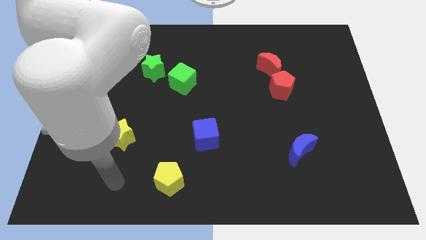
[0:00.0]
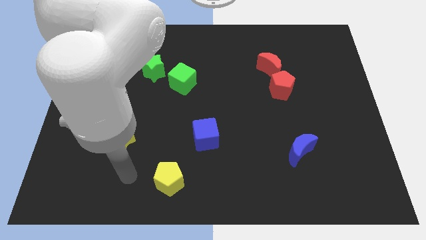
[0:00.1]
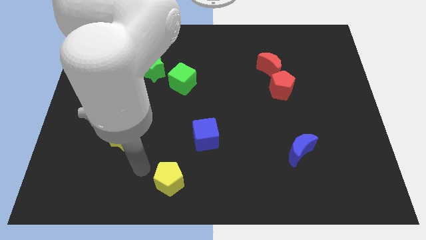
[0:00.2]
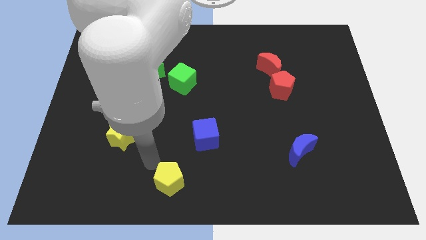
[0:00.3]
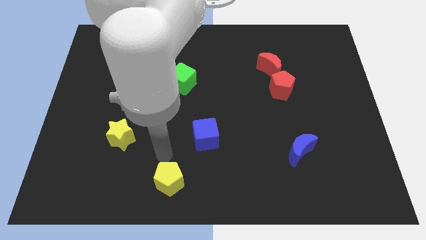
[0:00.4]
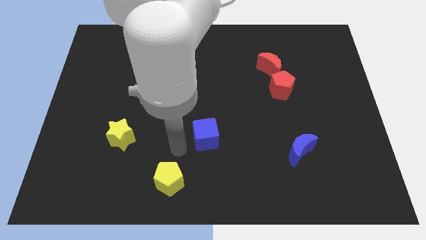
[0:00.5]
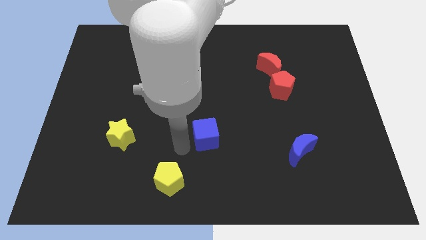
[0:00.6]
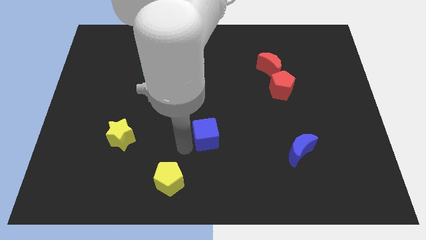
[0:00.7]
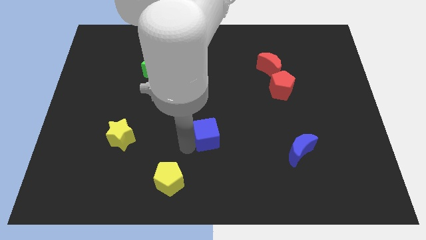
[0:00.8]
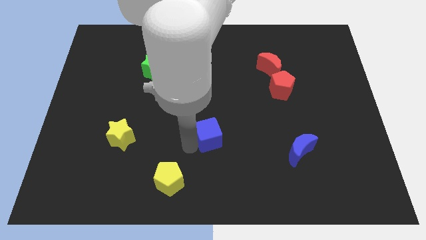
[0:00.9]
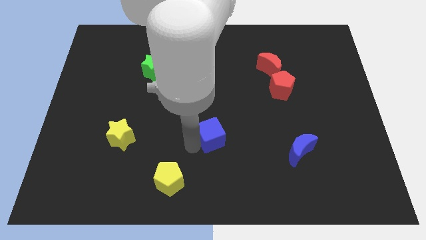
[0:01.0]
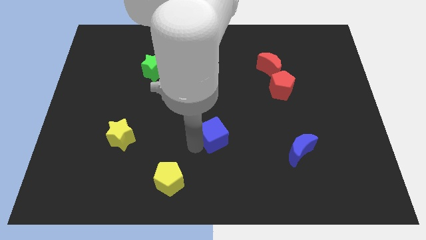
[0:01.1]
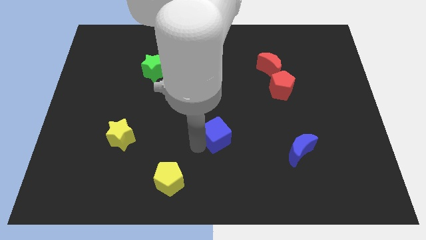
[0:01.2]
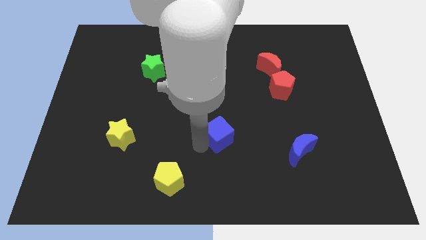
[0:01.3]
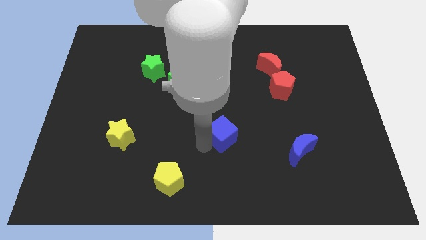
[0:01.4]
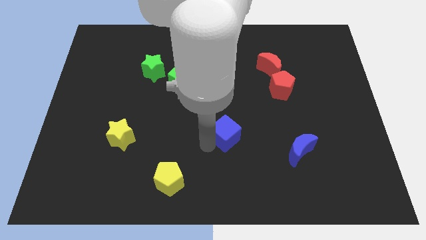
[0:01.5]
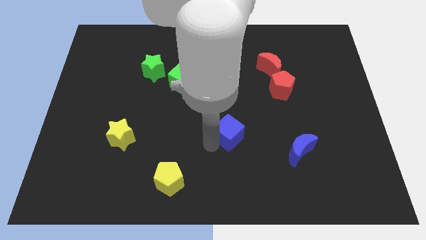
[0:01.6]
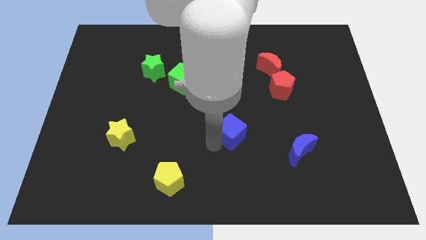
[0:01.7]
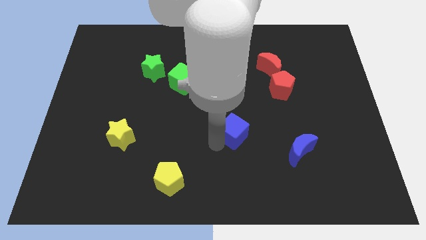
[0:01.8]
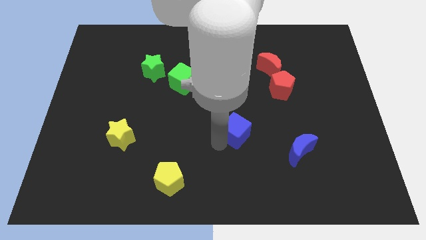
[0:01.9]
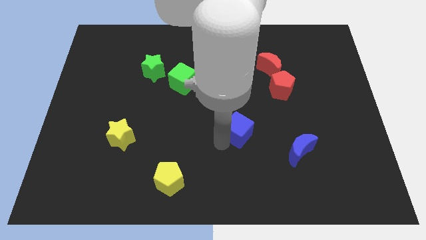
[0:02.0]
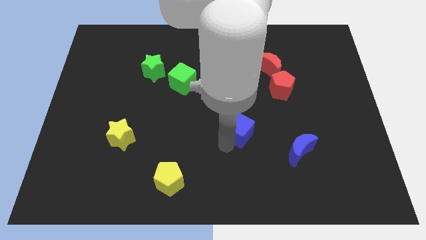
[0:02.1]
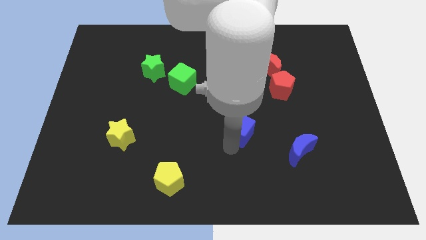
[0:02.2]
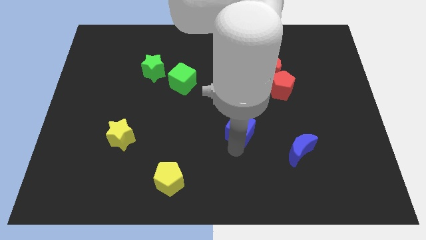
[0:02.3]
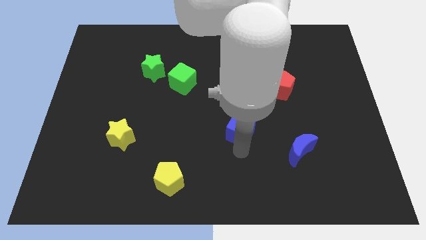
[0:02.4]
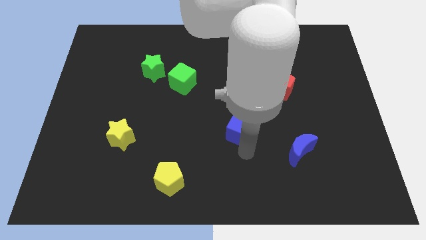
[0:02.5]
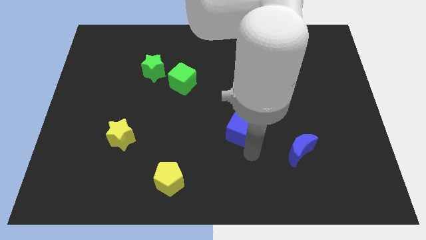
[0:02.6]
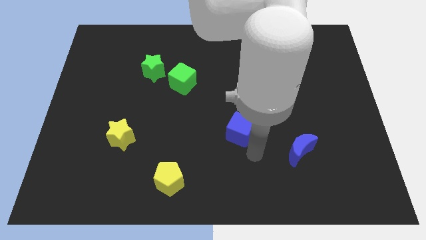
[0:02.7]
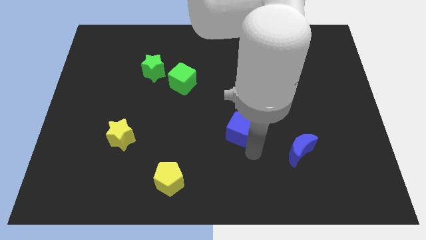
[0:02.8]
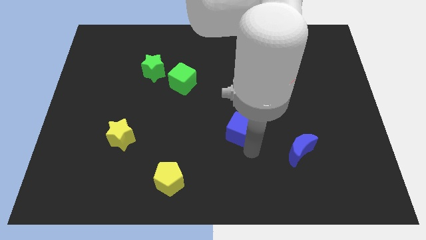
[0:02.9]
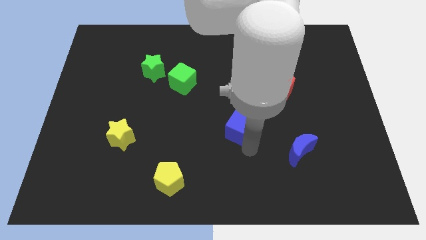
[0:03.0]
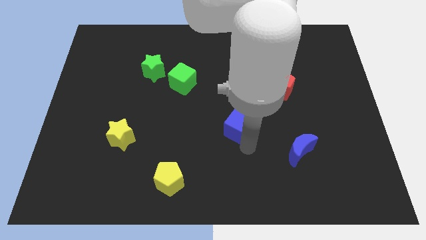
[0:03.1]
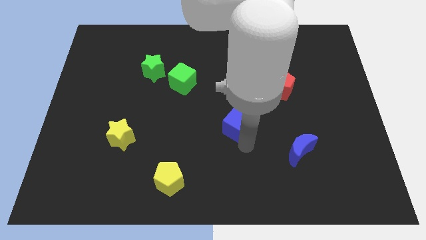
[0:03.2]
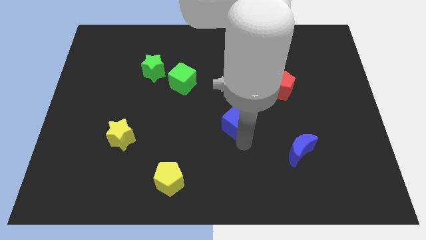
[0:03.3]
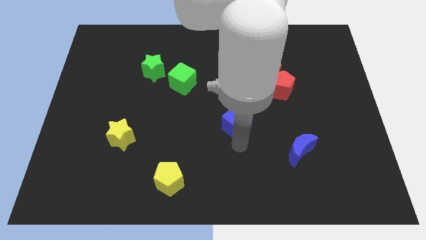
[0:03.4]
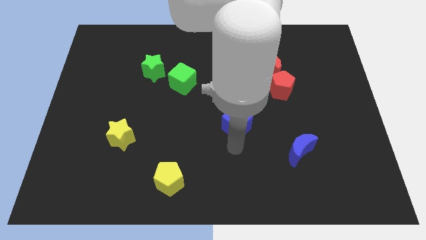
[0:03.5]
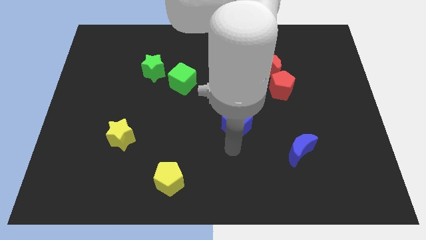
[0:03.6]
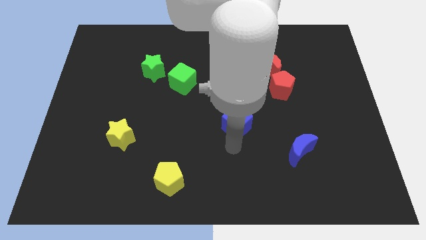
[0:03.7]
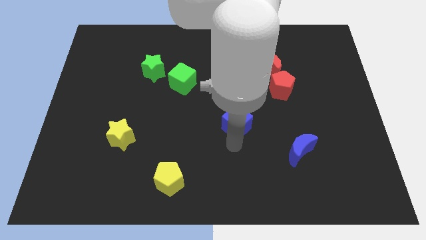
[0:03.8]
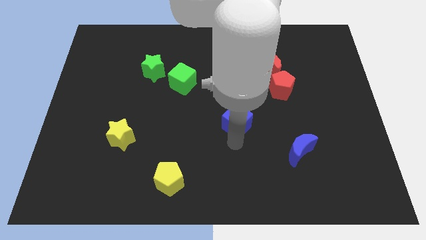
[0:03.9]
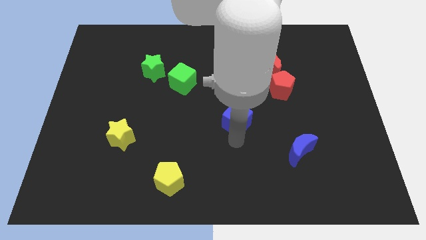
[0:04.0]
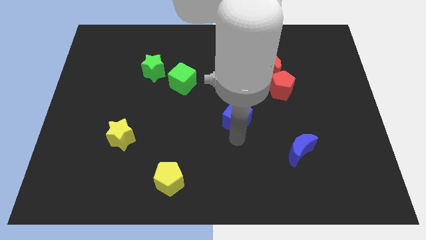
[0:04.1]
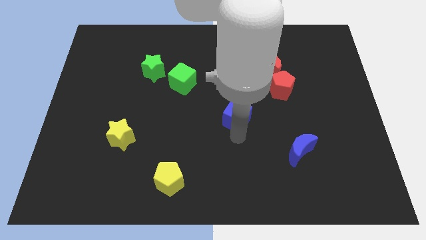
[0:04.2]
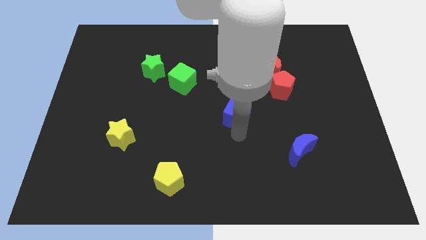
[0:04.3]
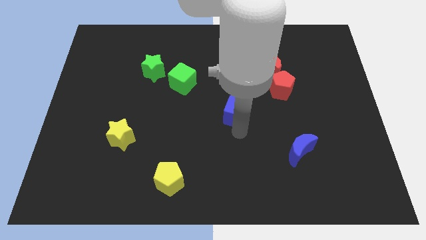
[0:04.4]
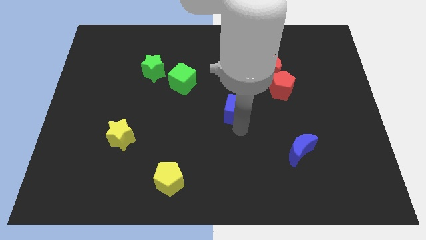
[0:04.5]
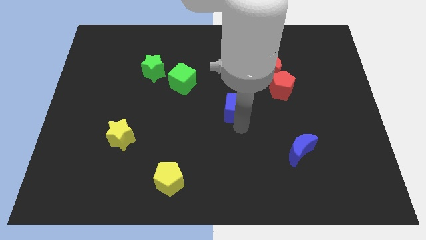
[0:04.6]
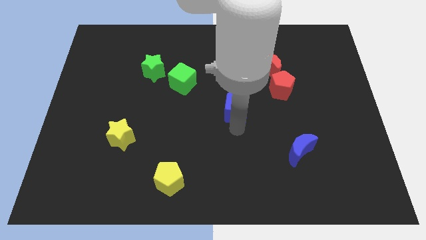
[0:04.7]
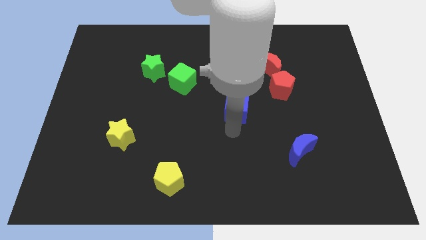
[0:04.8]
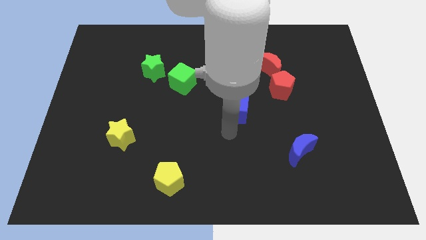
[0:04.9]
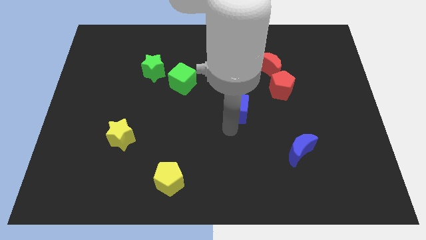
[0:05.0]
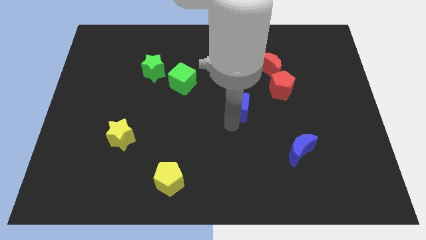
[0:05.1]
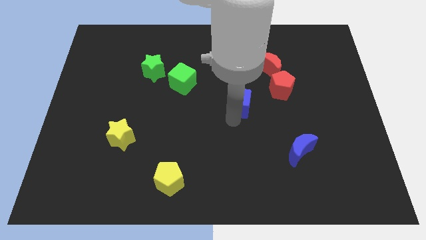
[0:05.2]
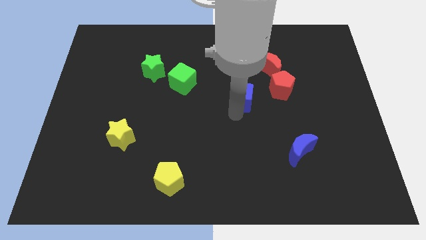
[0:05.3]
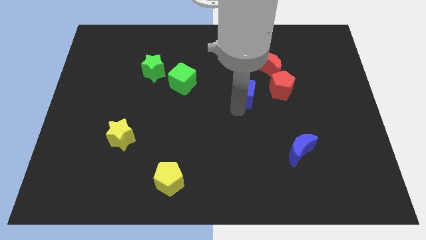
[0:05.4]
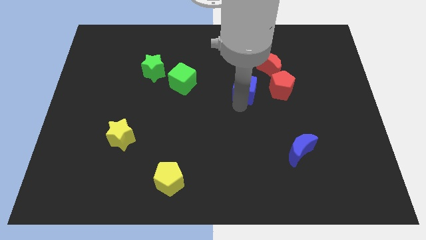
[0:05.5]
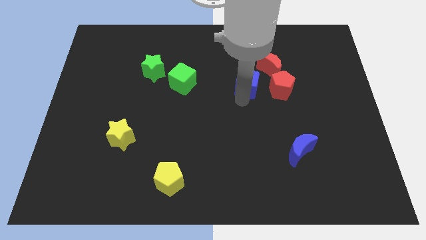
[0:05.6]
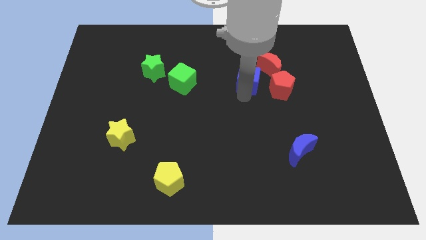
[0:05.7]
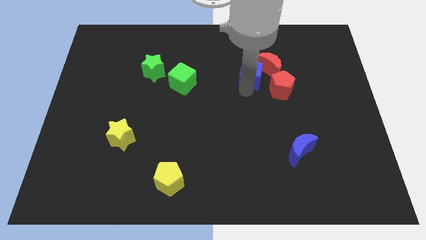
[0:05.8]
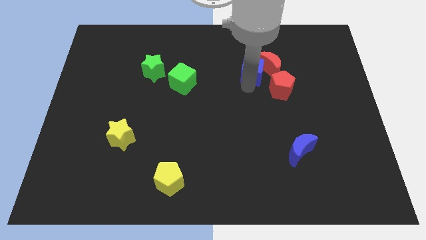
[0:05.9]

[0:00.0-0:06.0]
push the blue cube up and right diagonally

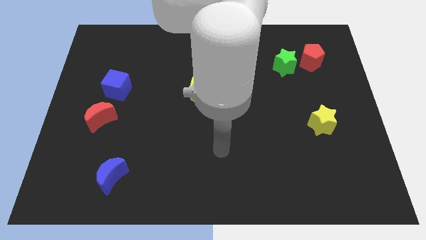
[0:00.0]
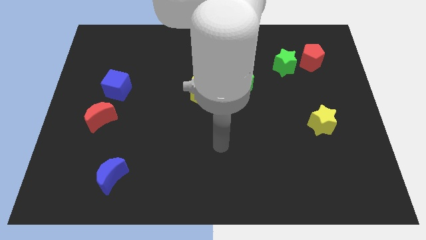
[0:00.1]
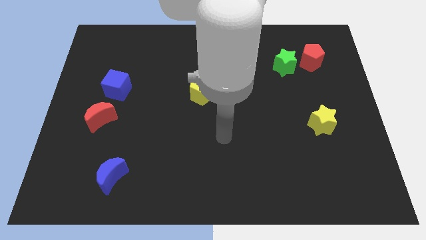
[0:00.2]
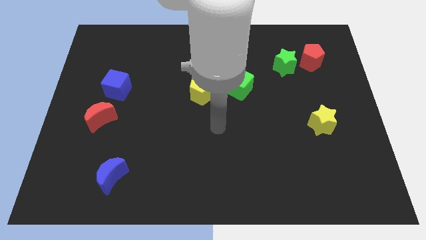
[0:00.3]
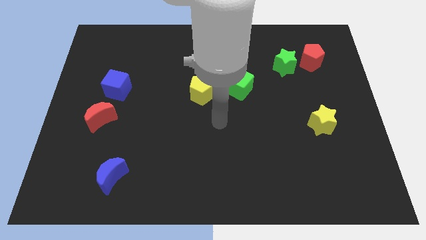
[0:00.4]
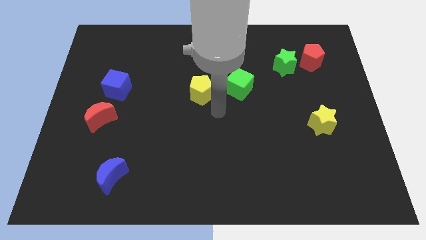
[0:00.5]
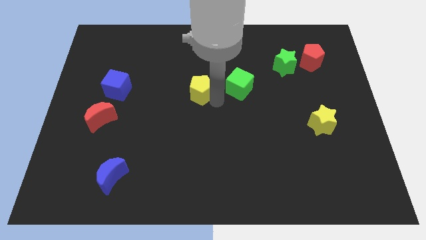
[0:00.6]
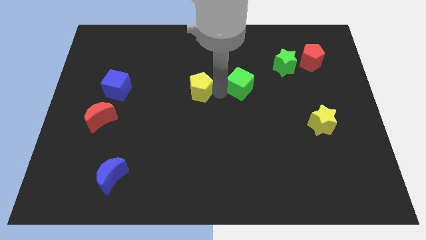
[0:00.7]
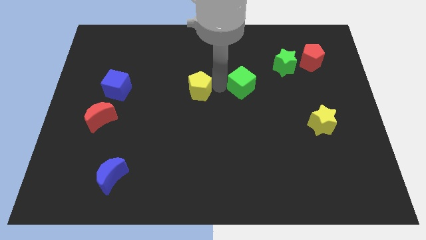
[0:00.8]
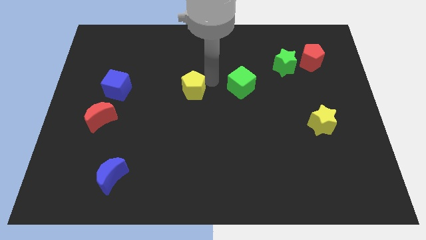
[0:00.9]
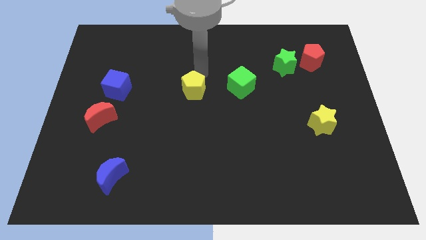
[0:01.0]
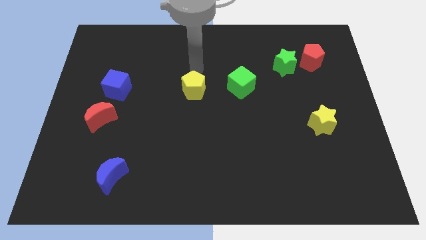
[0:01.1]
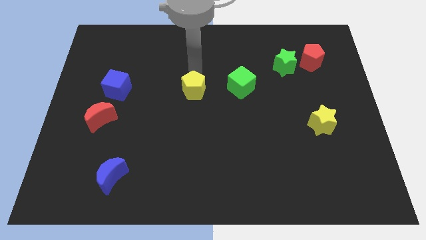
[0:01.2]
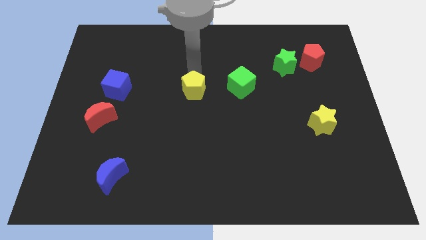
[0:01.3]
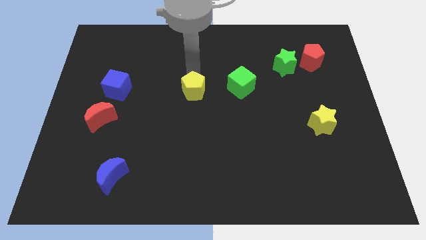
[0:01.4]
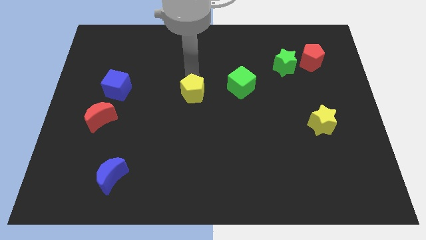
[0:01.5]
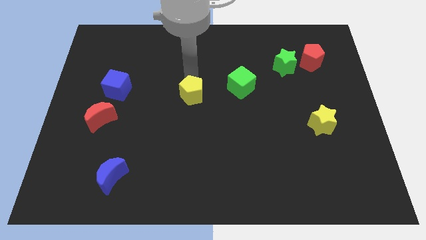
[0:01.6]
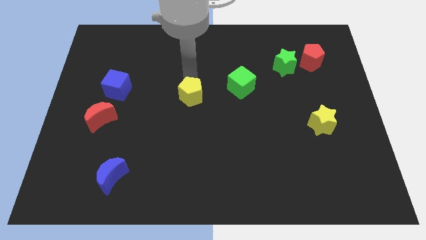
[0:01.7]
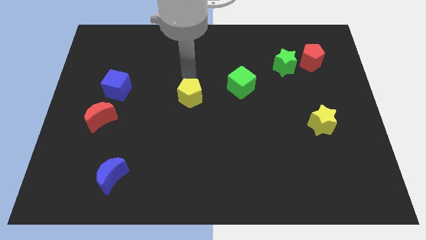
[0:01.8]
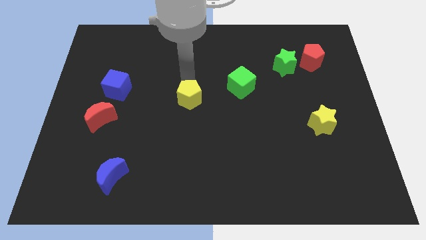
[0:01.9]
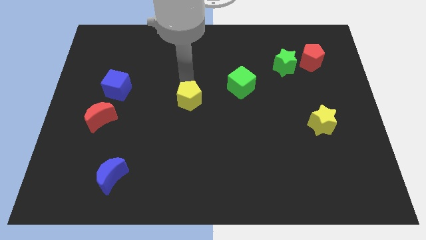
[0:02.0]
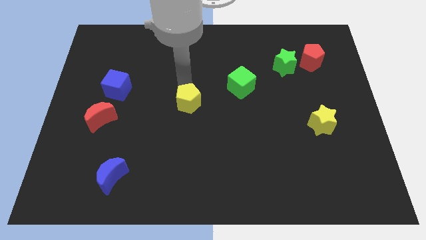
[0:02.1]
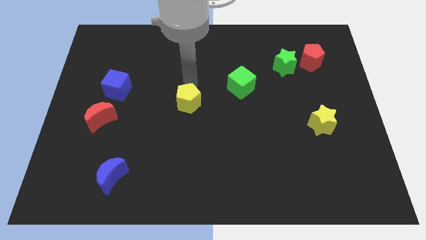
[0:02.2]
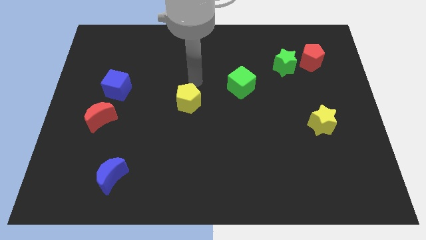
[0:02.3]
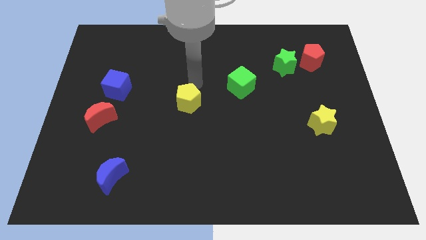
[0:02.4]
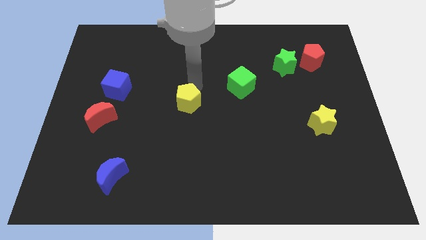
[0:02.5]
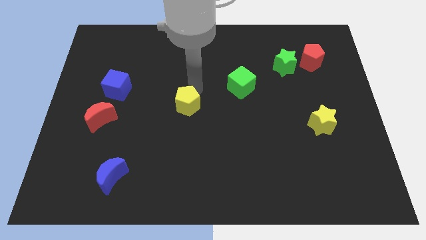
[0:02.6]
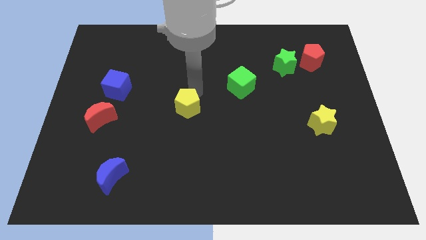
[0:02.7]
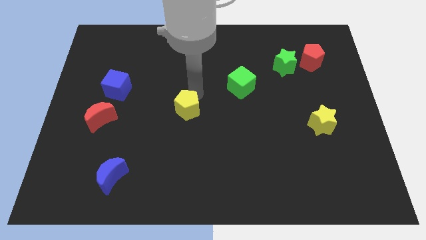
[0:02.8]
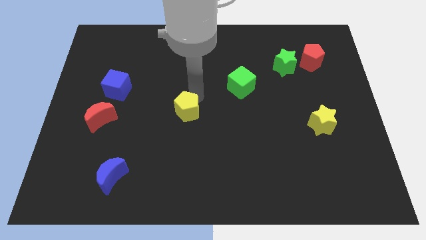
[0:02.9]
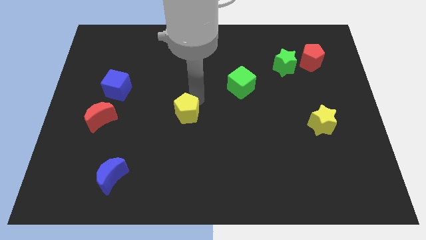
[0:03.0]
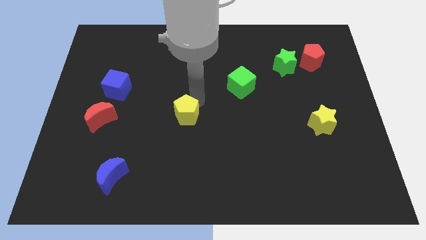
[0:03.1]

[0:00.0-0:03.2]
slide the yellow pentagon slightly down and to the left diagonally
